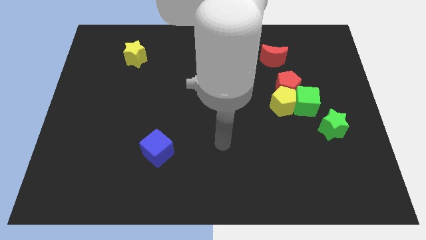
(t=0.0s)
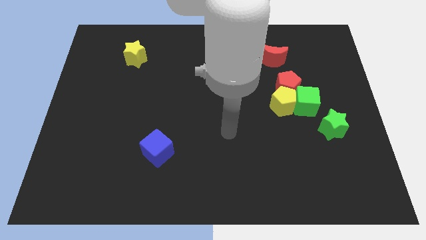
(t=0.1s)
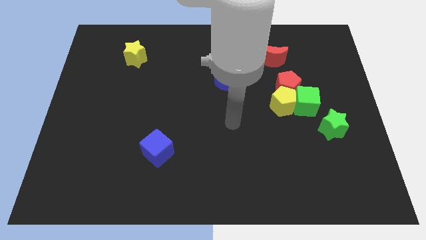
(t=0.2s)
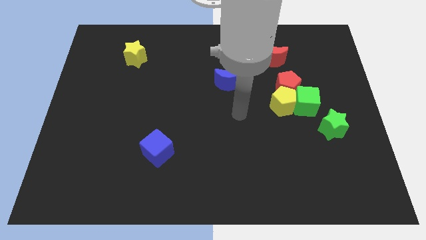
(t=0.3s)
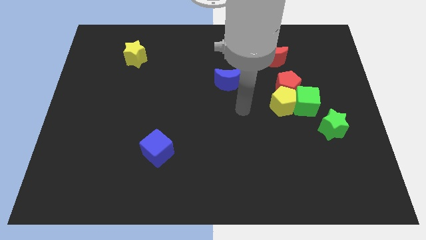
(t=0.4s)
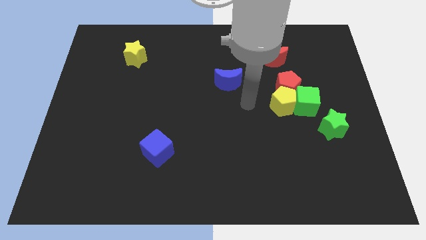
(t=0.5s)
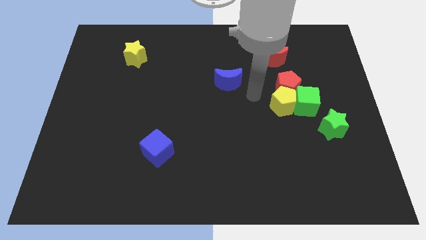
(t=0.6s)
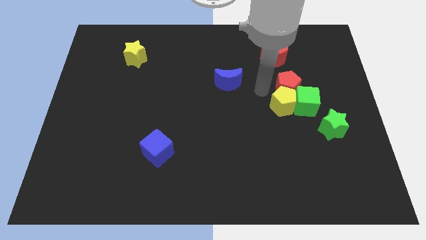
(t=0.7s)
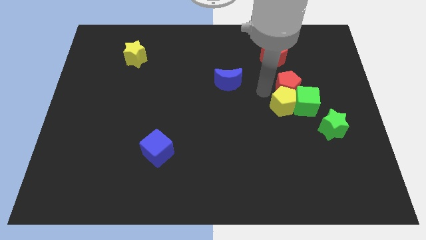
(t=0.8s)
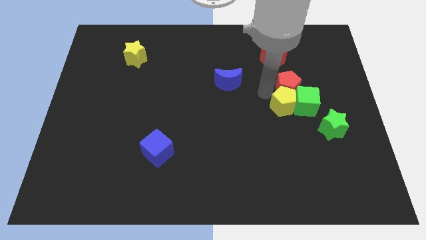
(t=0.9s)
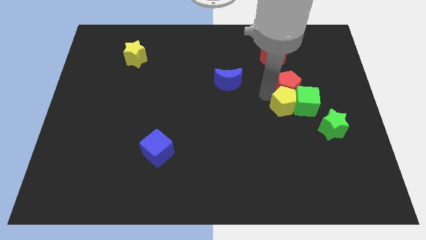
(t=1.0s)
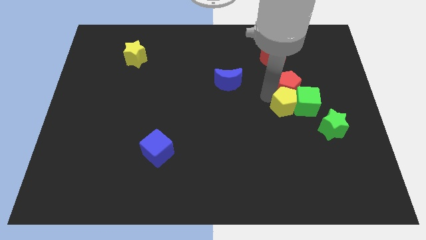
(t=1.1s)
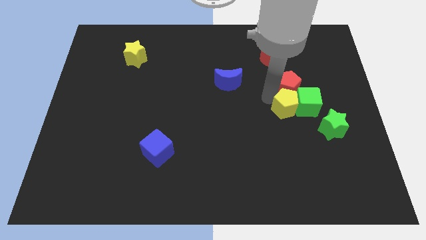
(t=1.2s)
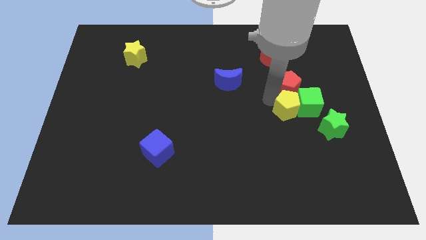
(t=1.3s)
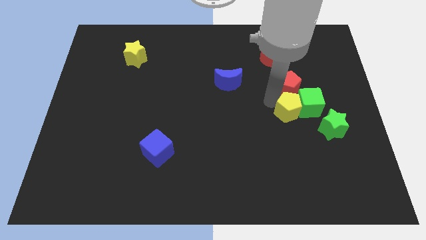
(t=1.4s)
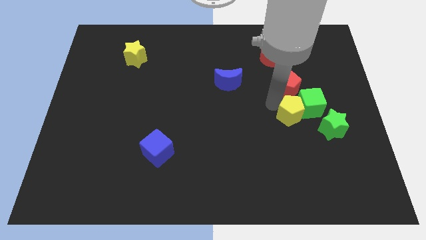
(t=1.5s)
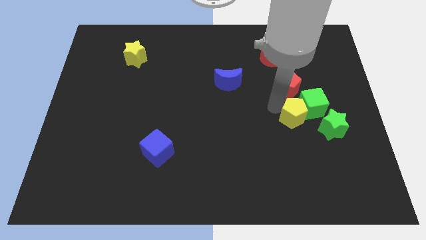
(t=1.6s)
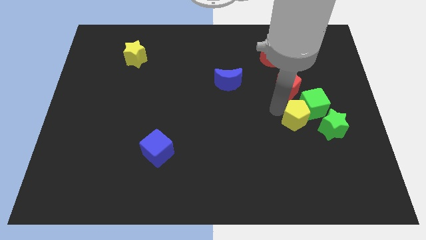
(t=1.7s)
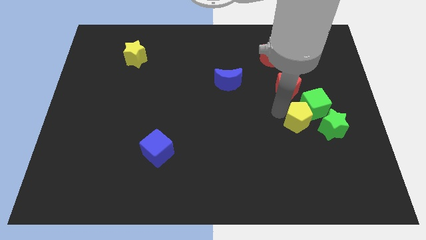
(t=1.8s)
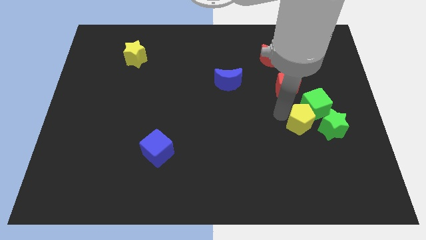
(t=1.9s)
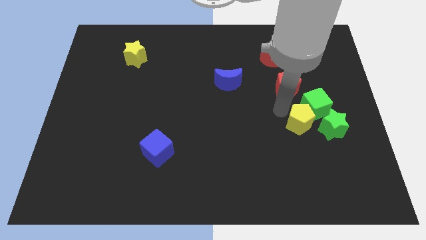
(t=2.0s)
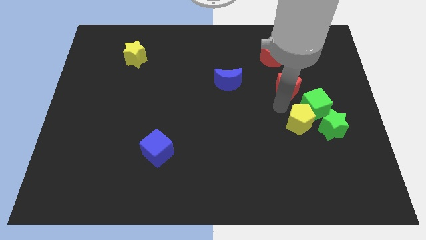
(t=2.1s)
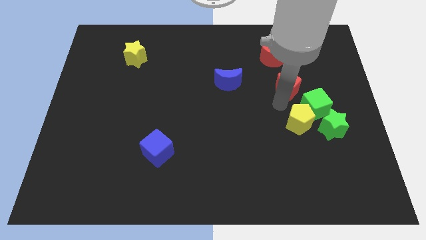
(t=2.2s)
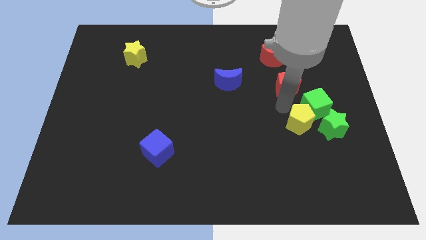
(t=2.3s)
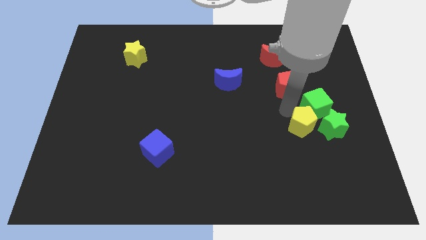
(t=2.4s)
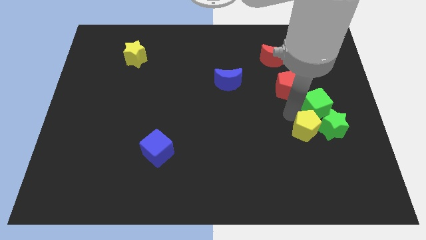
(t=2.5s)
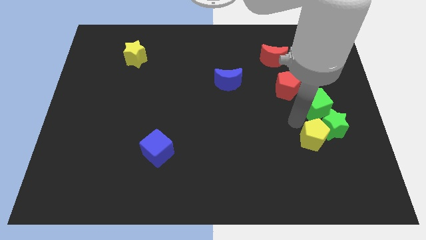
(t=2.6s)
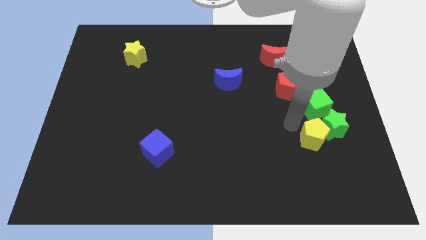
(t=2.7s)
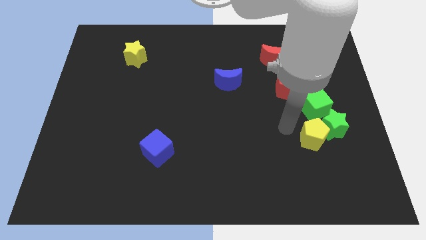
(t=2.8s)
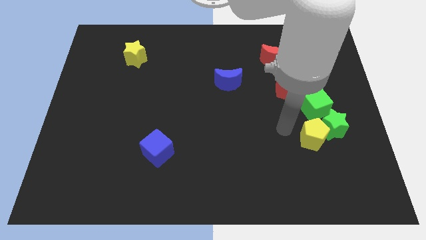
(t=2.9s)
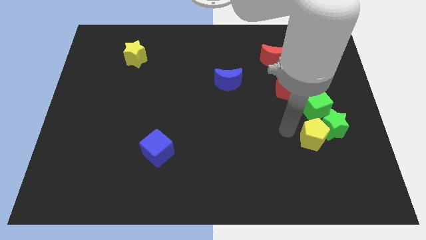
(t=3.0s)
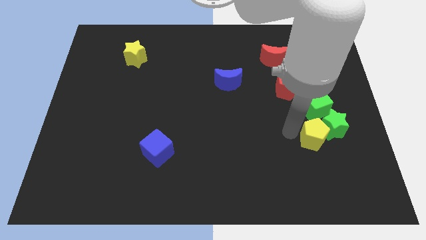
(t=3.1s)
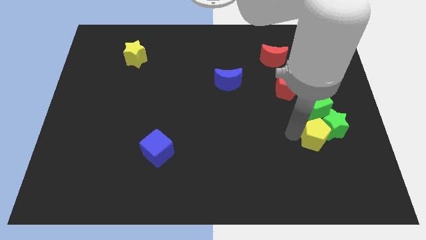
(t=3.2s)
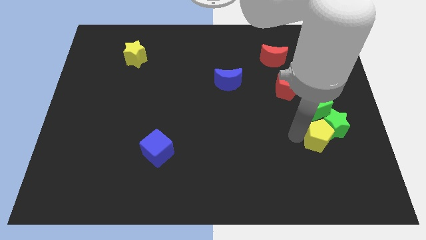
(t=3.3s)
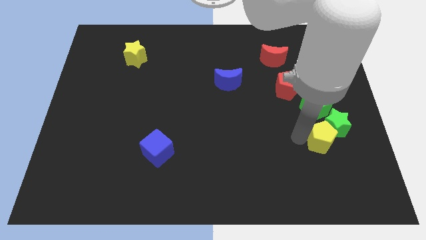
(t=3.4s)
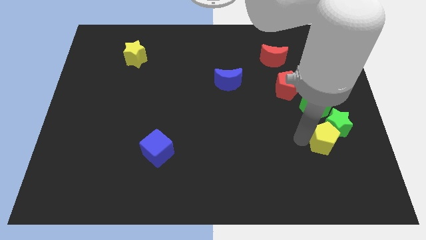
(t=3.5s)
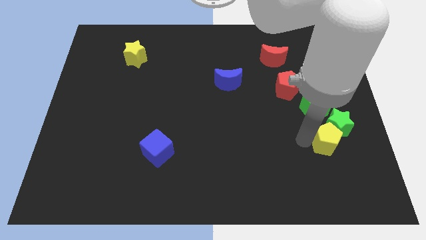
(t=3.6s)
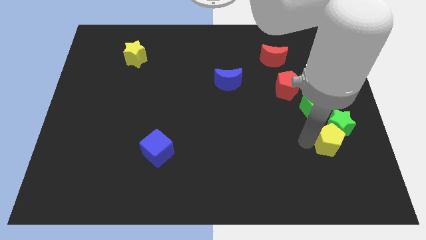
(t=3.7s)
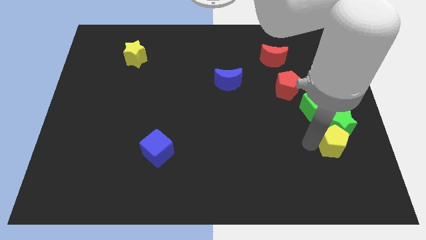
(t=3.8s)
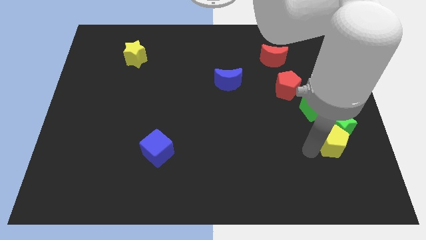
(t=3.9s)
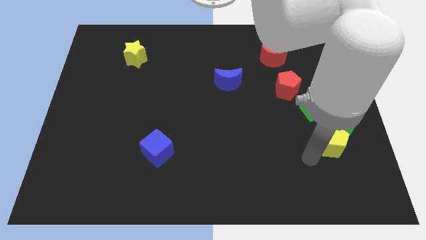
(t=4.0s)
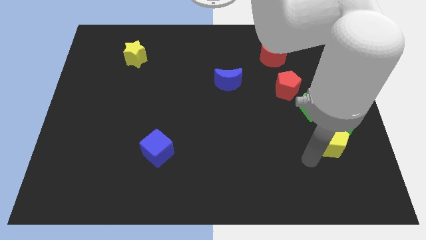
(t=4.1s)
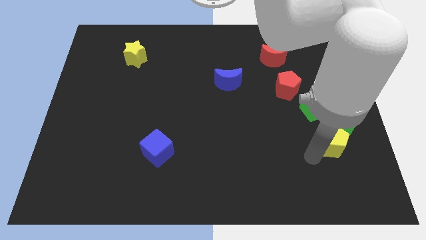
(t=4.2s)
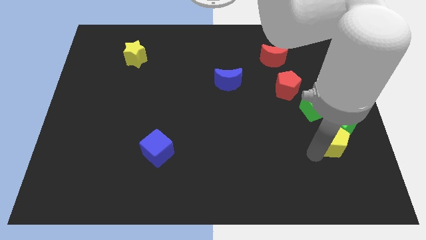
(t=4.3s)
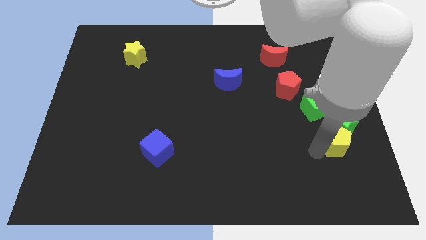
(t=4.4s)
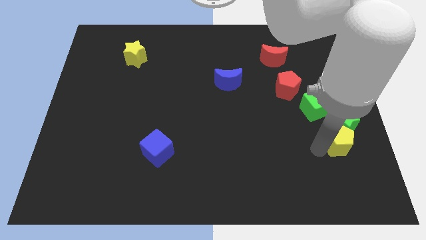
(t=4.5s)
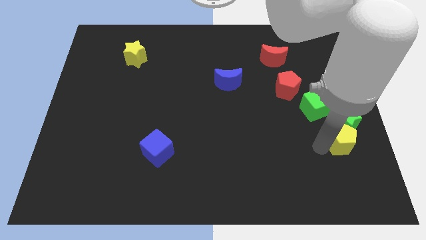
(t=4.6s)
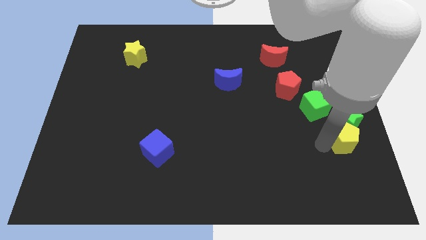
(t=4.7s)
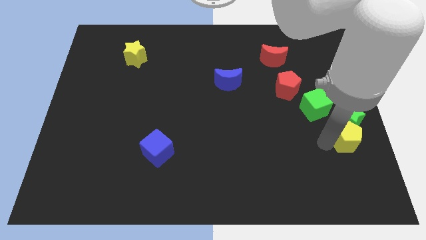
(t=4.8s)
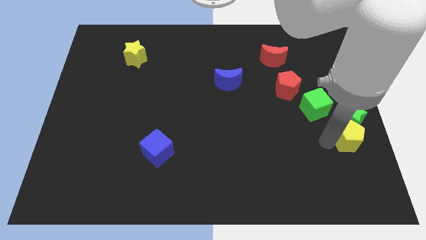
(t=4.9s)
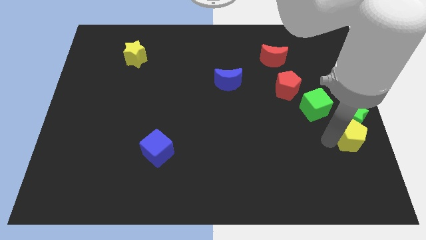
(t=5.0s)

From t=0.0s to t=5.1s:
move the yellow pentagon to the center right
